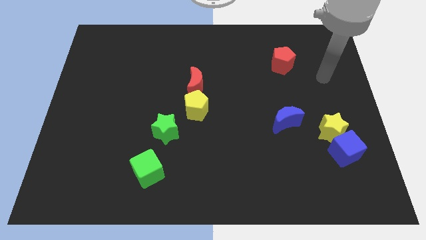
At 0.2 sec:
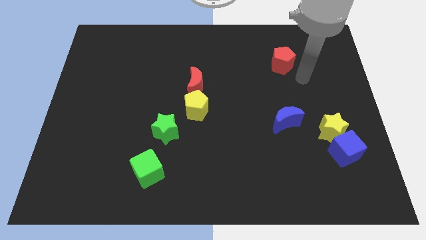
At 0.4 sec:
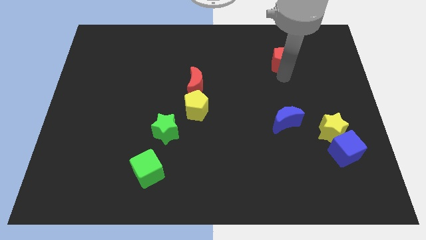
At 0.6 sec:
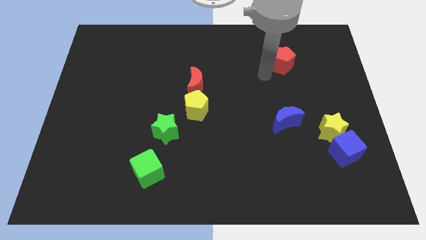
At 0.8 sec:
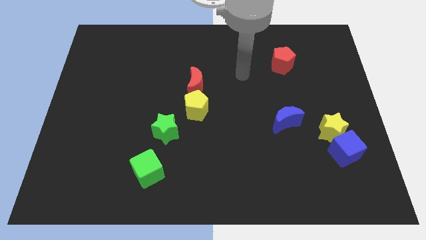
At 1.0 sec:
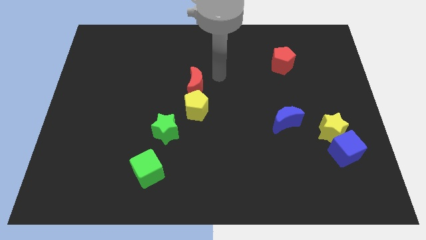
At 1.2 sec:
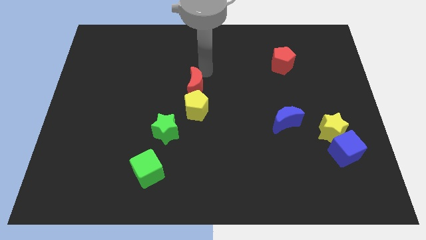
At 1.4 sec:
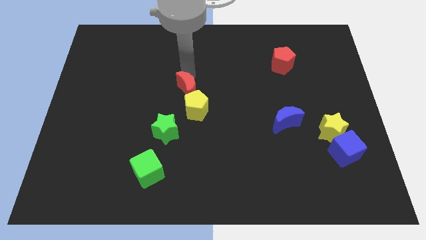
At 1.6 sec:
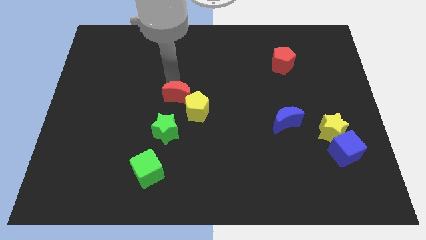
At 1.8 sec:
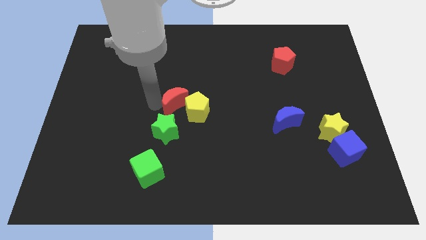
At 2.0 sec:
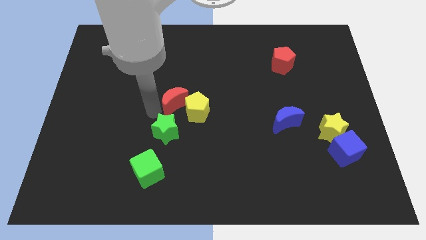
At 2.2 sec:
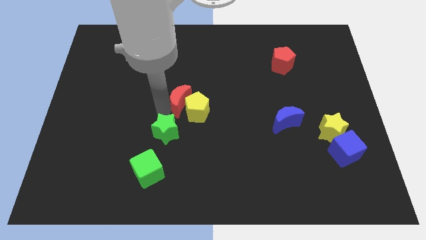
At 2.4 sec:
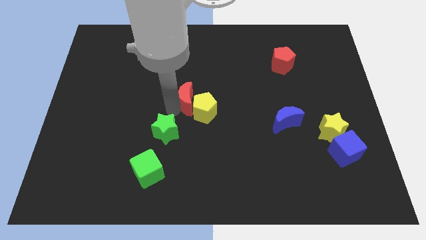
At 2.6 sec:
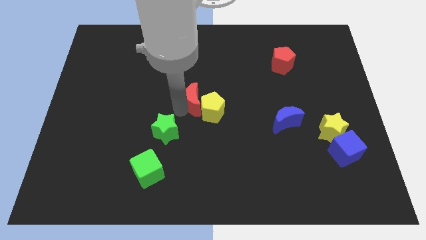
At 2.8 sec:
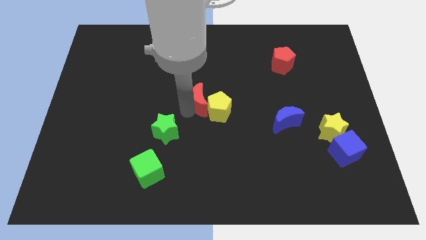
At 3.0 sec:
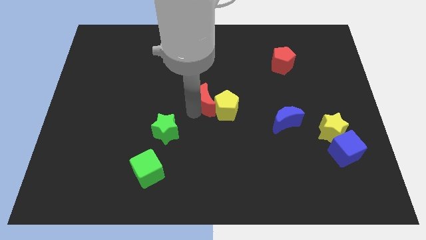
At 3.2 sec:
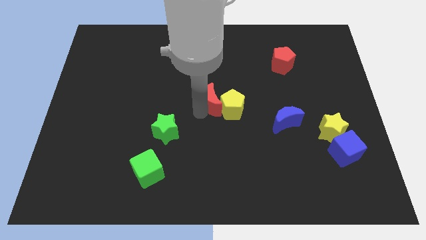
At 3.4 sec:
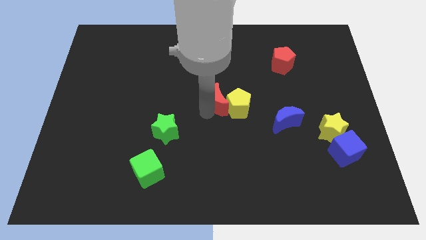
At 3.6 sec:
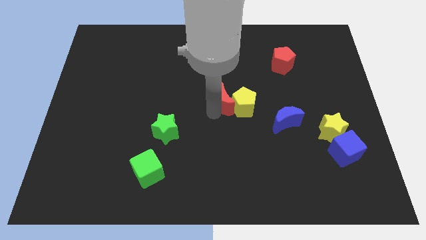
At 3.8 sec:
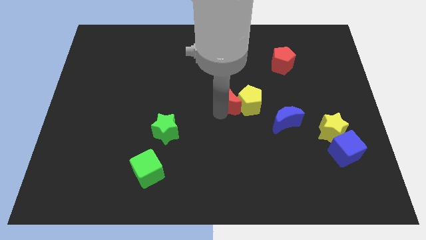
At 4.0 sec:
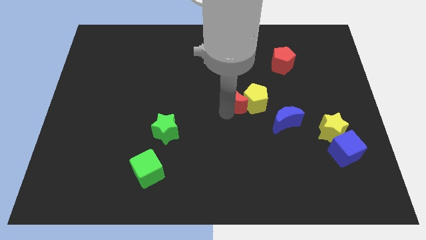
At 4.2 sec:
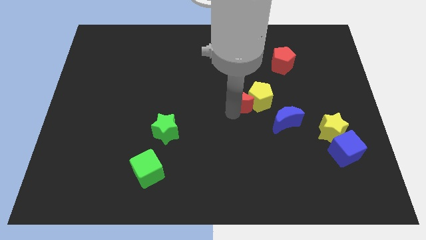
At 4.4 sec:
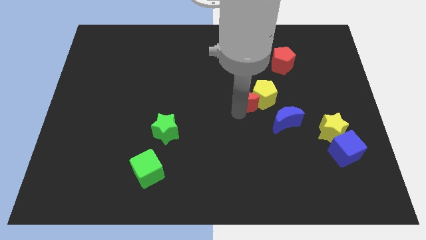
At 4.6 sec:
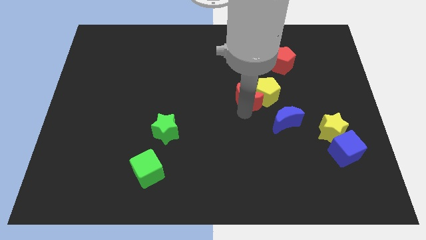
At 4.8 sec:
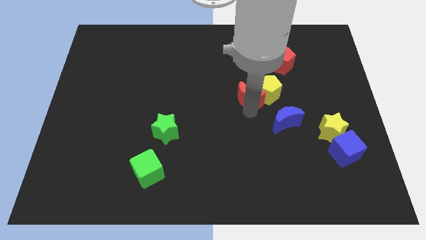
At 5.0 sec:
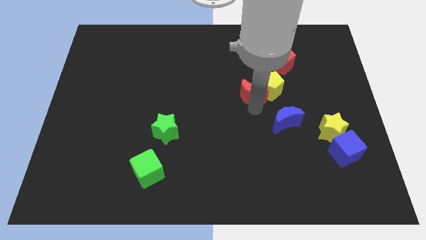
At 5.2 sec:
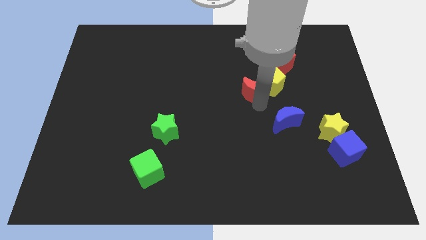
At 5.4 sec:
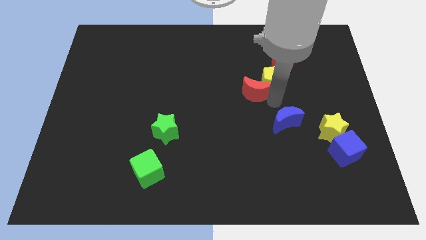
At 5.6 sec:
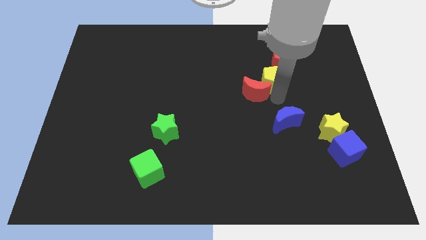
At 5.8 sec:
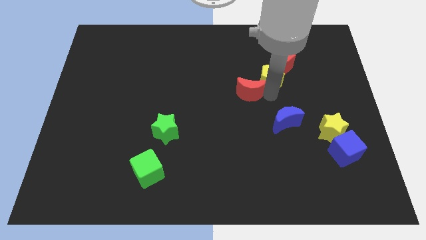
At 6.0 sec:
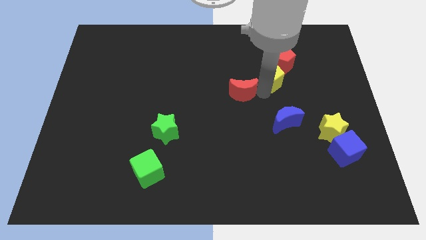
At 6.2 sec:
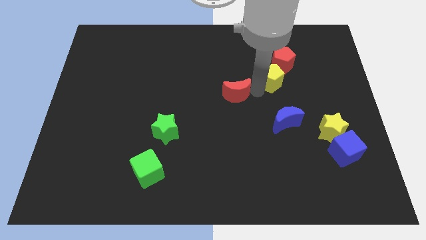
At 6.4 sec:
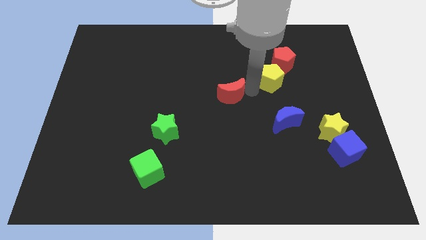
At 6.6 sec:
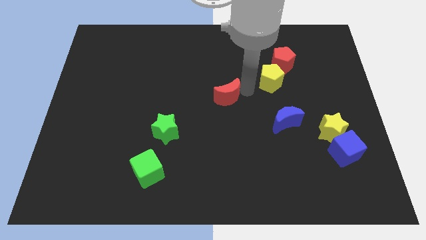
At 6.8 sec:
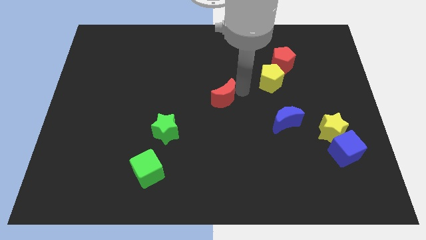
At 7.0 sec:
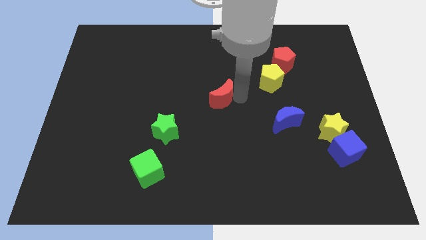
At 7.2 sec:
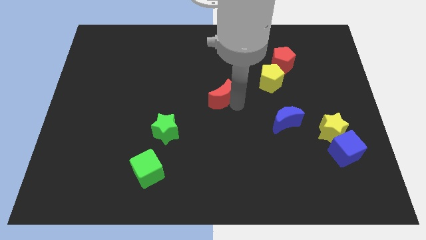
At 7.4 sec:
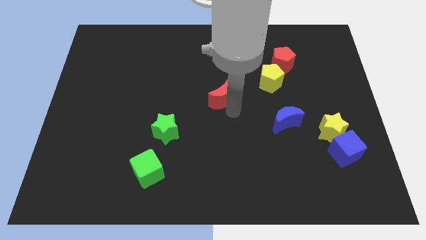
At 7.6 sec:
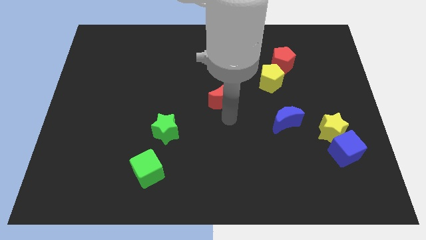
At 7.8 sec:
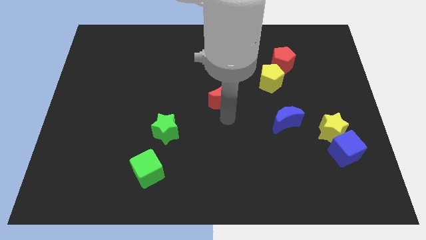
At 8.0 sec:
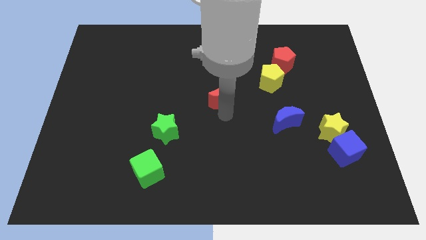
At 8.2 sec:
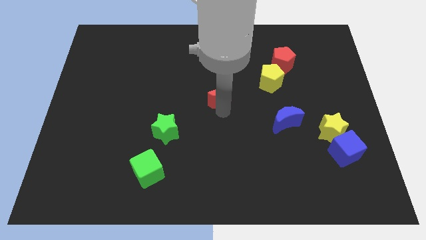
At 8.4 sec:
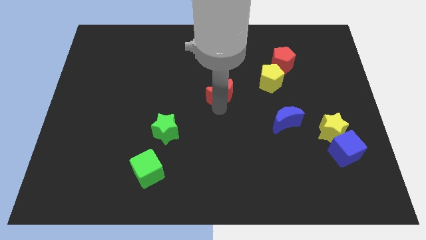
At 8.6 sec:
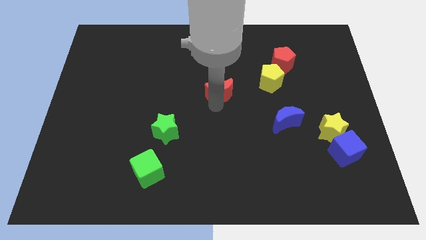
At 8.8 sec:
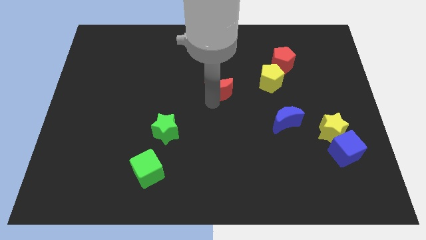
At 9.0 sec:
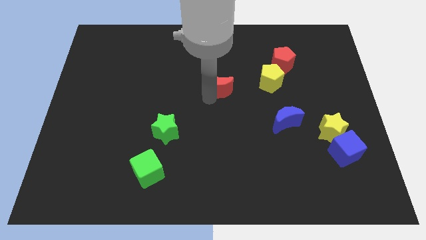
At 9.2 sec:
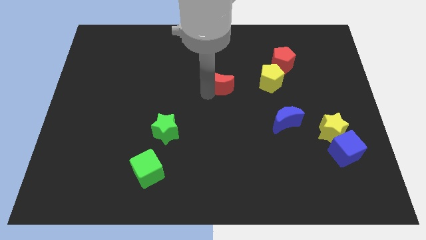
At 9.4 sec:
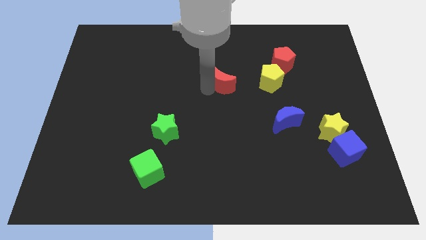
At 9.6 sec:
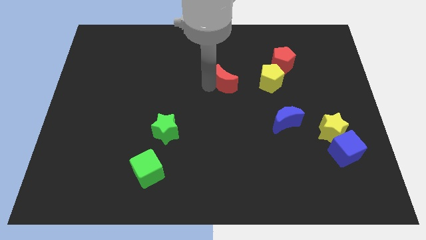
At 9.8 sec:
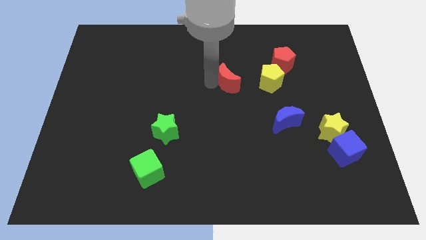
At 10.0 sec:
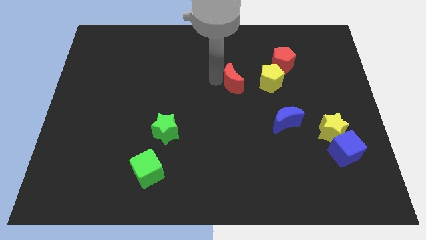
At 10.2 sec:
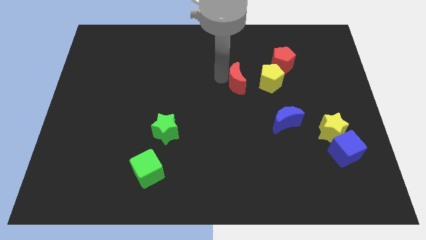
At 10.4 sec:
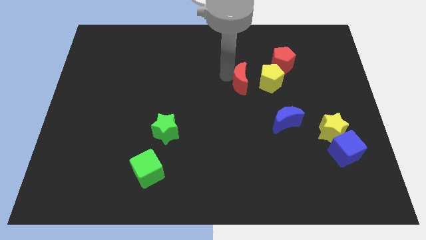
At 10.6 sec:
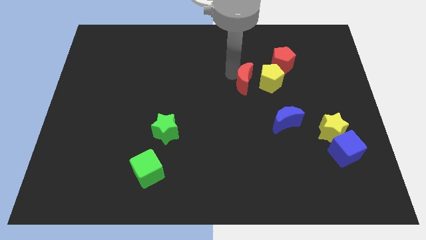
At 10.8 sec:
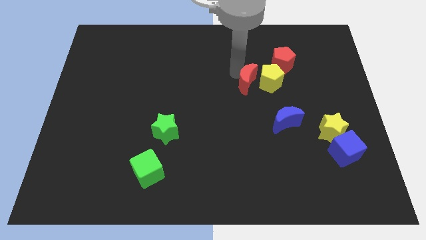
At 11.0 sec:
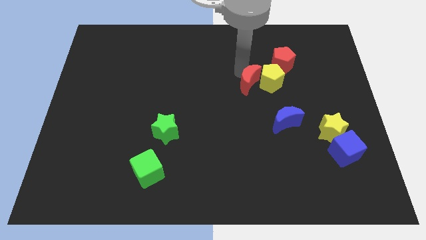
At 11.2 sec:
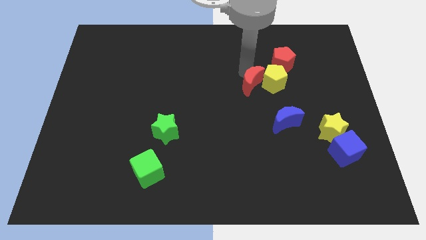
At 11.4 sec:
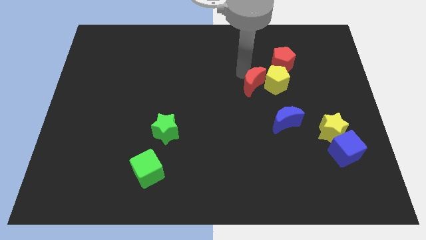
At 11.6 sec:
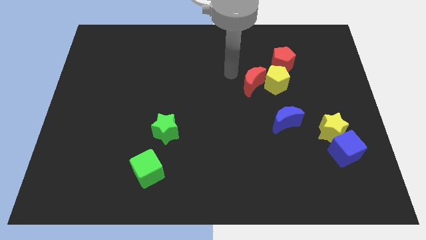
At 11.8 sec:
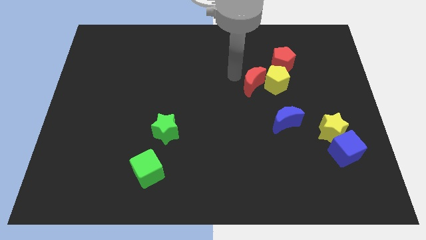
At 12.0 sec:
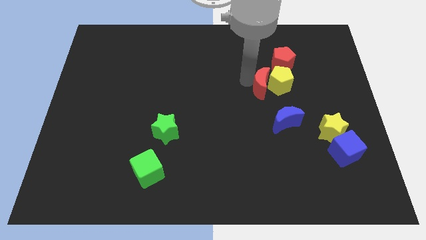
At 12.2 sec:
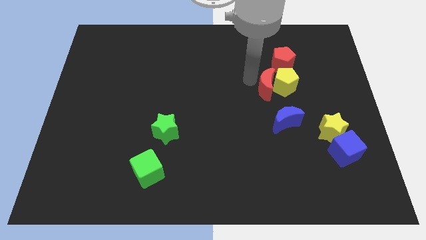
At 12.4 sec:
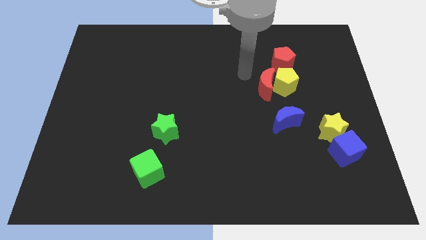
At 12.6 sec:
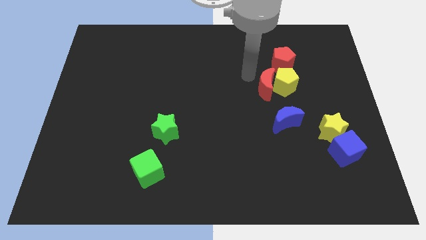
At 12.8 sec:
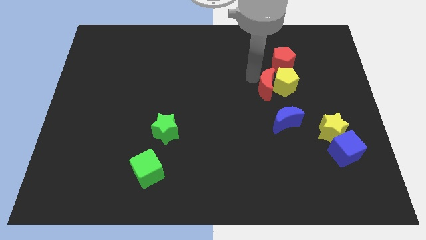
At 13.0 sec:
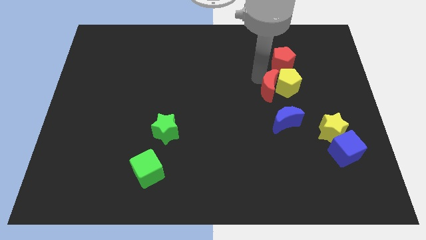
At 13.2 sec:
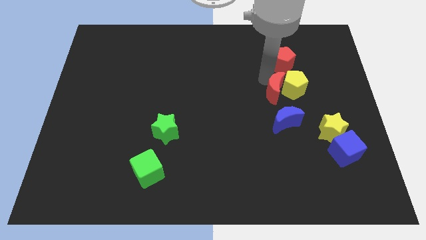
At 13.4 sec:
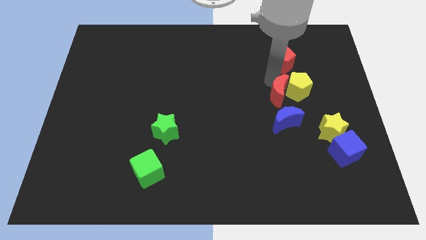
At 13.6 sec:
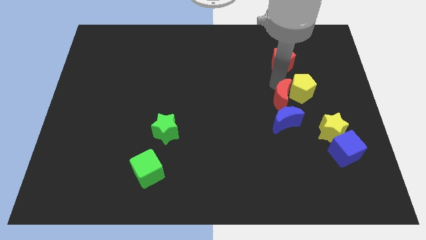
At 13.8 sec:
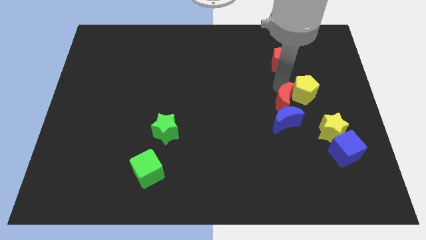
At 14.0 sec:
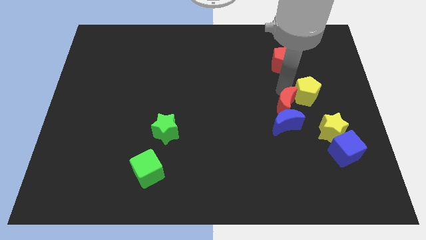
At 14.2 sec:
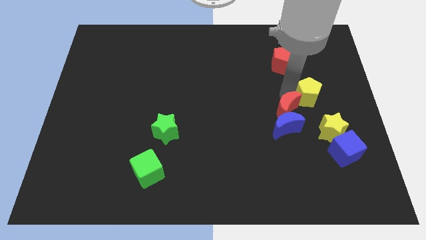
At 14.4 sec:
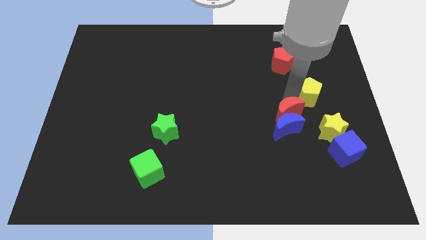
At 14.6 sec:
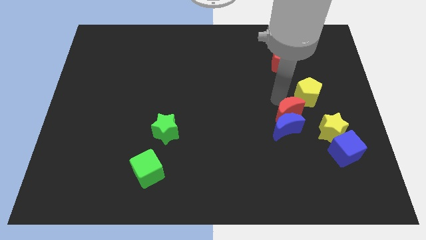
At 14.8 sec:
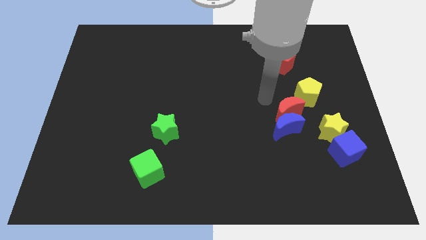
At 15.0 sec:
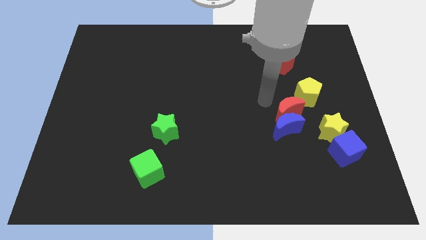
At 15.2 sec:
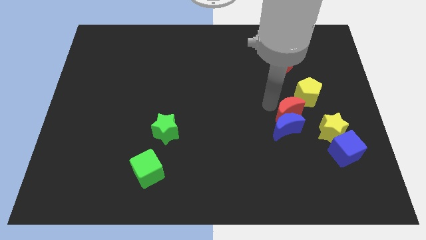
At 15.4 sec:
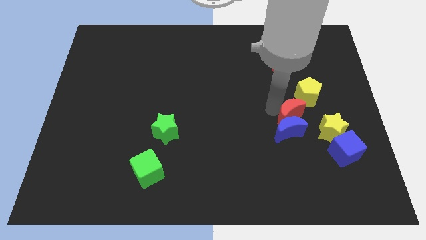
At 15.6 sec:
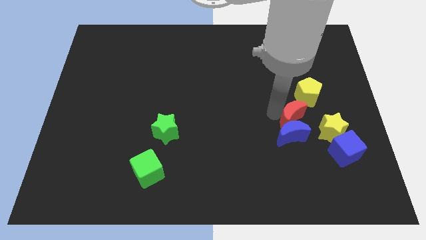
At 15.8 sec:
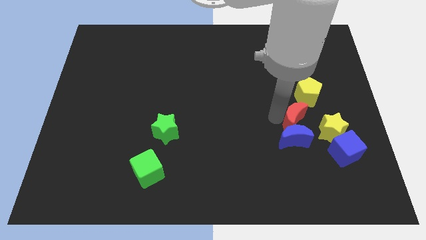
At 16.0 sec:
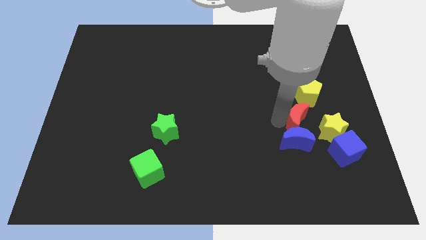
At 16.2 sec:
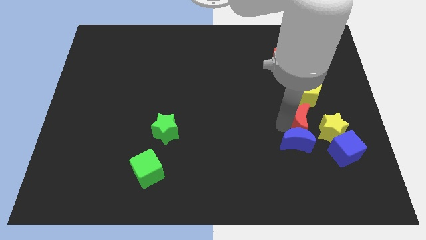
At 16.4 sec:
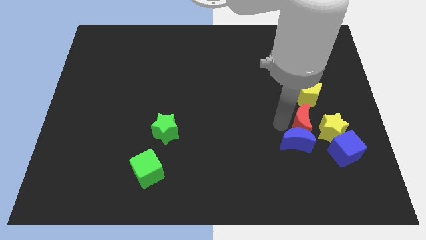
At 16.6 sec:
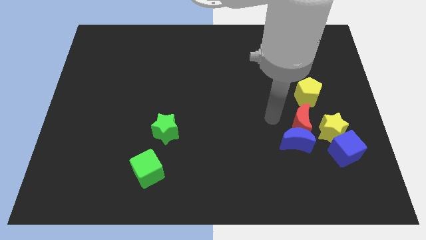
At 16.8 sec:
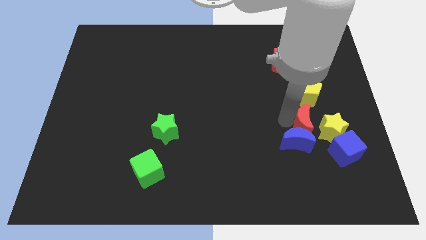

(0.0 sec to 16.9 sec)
put the red moon close to the yellow star
